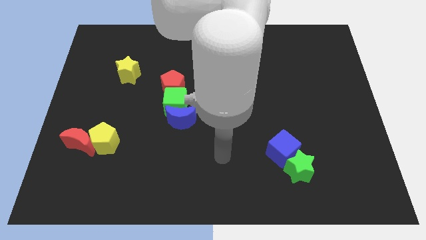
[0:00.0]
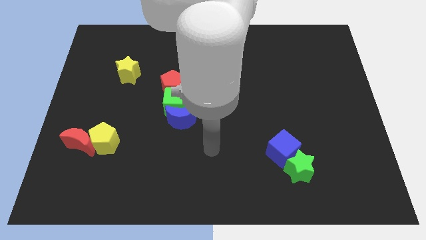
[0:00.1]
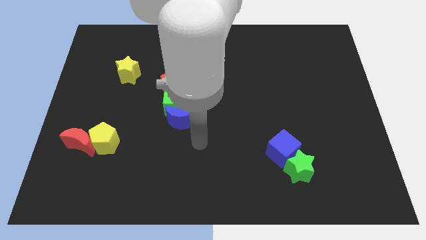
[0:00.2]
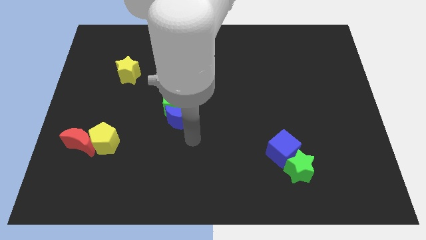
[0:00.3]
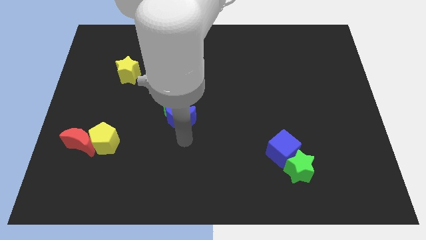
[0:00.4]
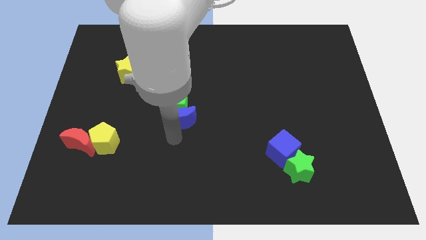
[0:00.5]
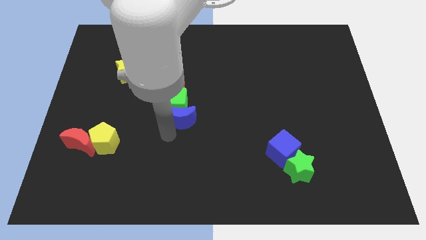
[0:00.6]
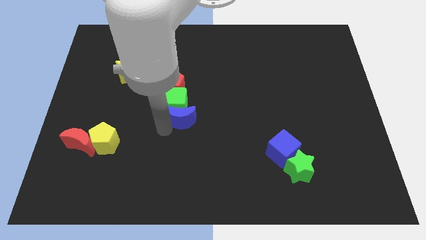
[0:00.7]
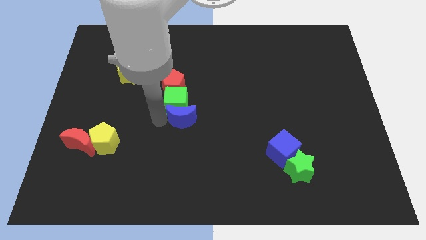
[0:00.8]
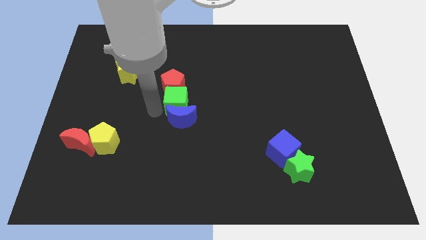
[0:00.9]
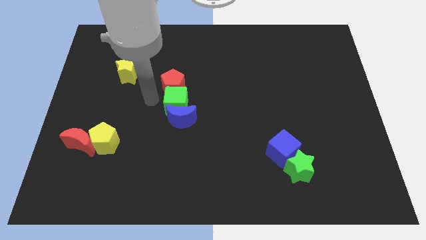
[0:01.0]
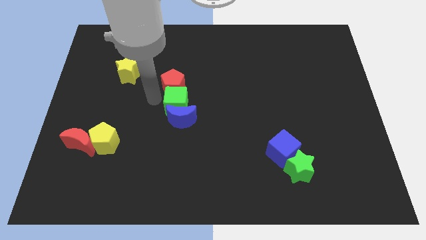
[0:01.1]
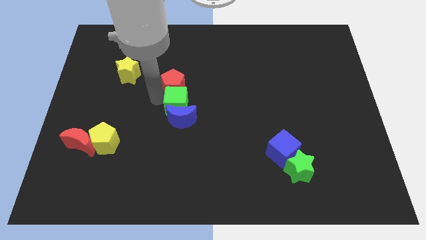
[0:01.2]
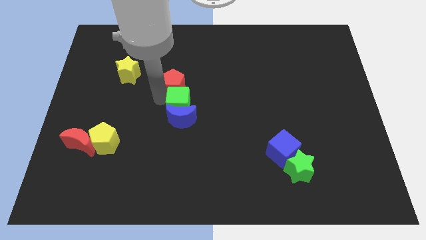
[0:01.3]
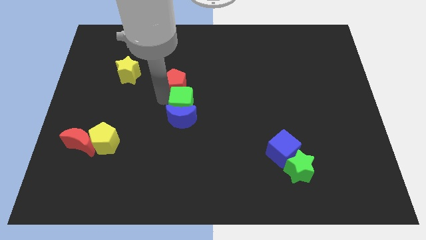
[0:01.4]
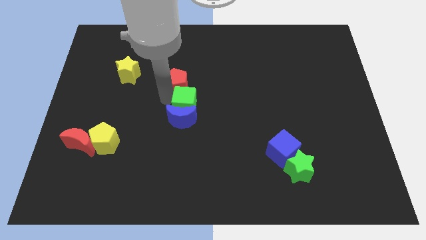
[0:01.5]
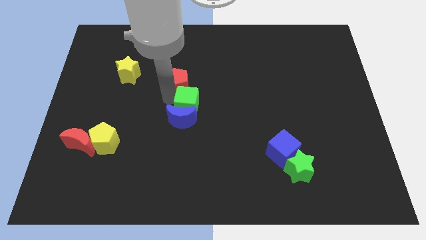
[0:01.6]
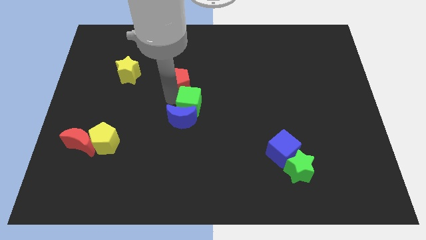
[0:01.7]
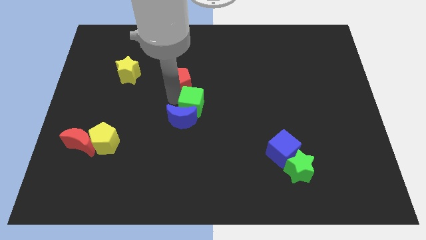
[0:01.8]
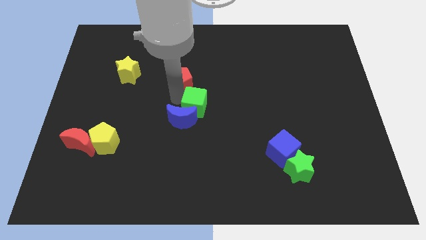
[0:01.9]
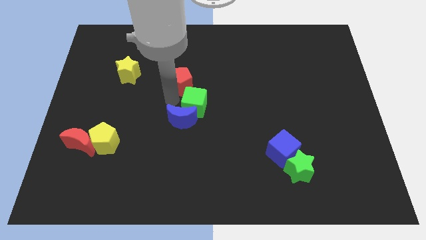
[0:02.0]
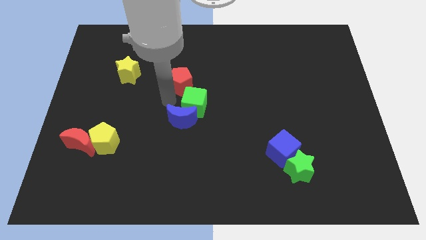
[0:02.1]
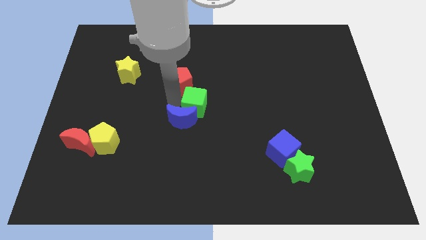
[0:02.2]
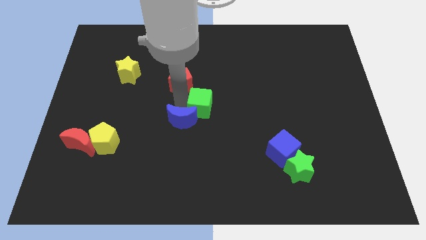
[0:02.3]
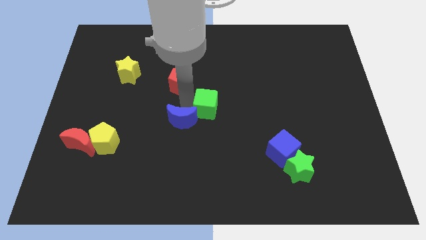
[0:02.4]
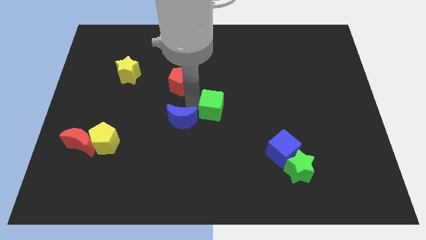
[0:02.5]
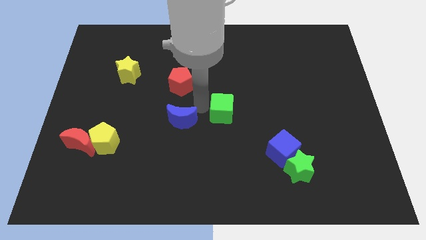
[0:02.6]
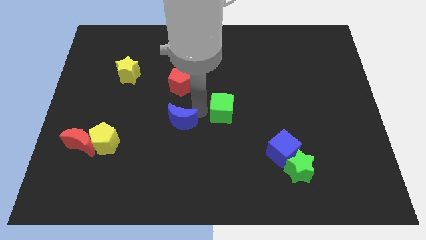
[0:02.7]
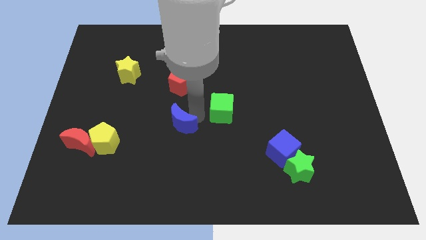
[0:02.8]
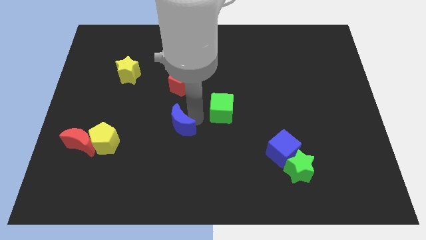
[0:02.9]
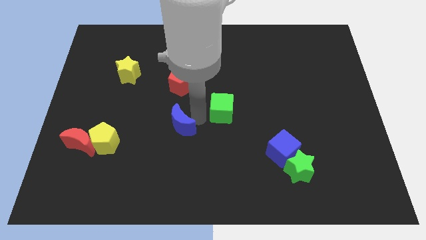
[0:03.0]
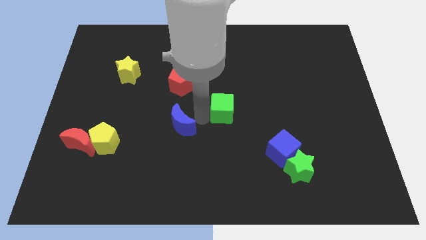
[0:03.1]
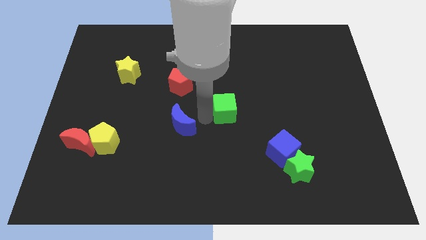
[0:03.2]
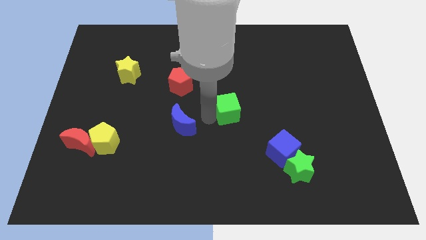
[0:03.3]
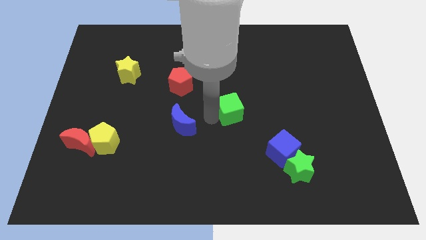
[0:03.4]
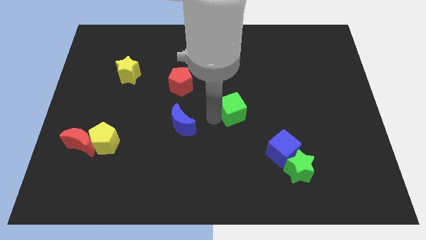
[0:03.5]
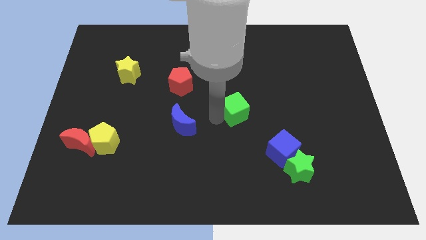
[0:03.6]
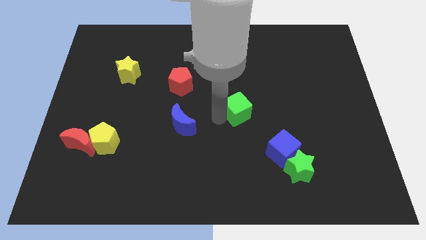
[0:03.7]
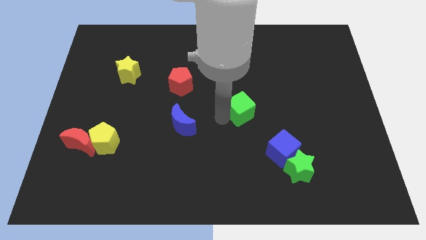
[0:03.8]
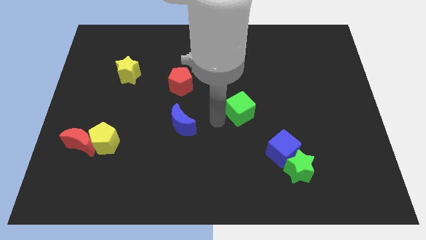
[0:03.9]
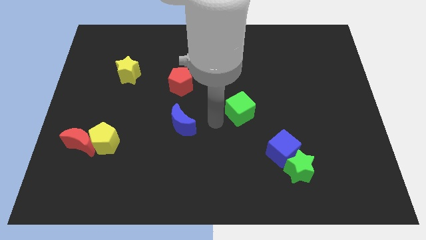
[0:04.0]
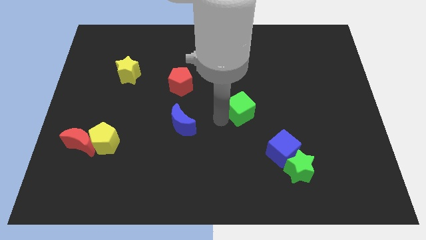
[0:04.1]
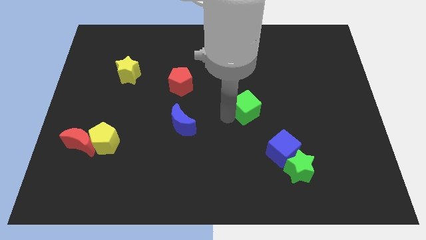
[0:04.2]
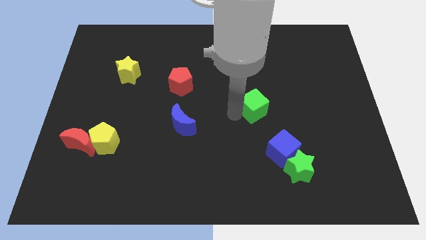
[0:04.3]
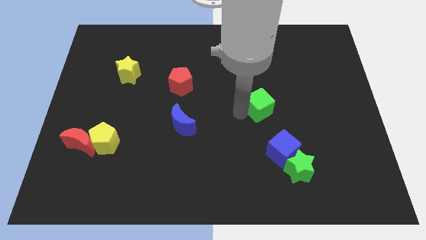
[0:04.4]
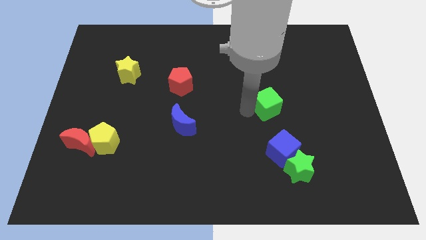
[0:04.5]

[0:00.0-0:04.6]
push the green cube right

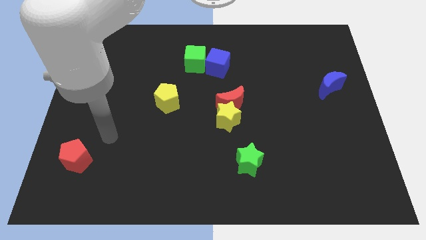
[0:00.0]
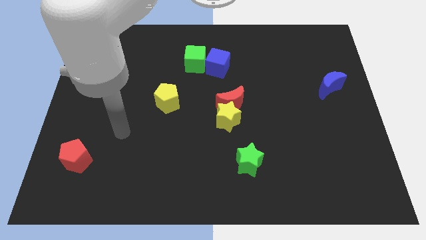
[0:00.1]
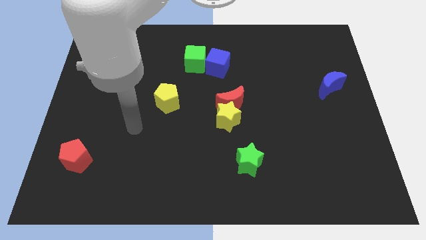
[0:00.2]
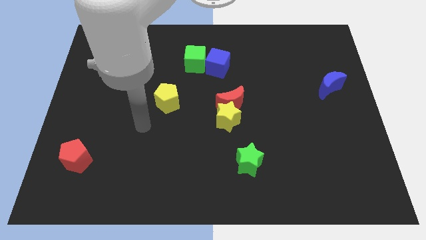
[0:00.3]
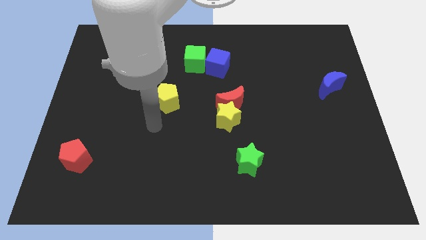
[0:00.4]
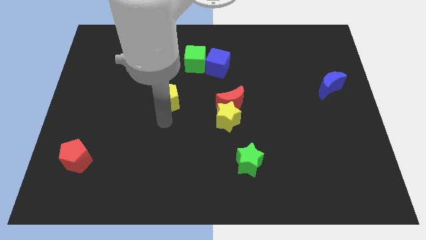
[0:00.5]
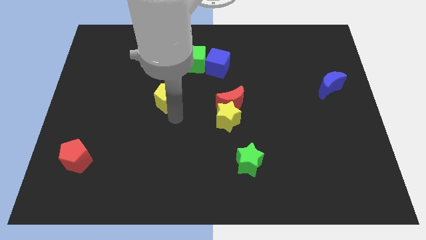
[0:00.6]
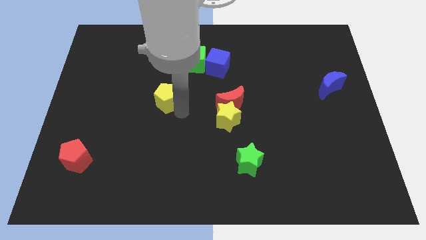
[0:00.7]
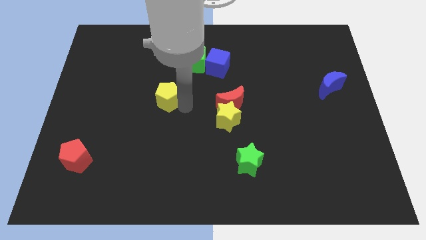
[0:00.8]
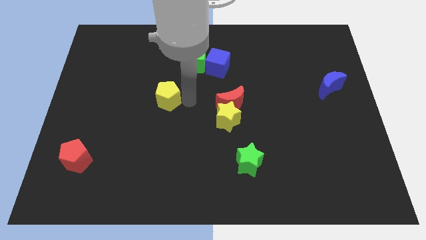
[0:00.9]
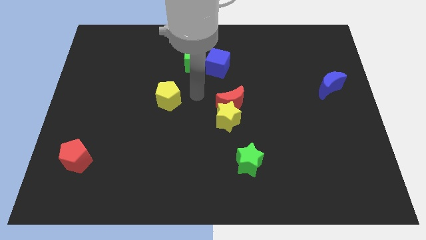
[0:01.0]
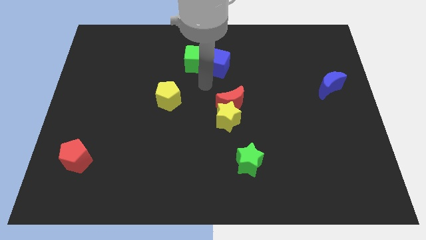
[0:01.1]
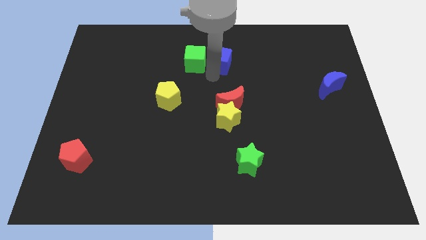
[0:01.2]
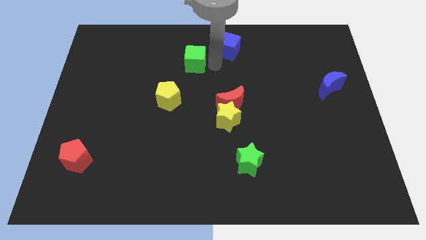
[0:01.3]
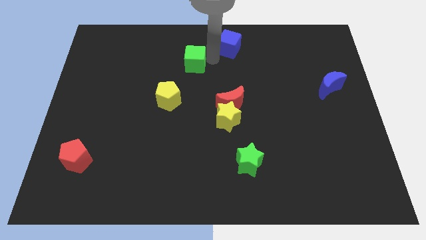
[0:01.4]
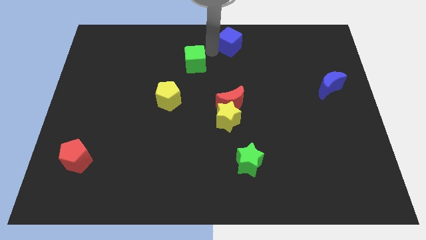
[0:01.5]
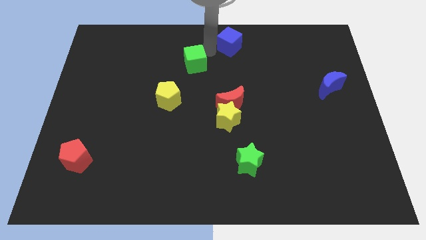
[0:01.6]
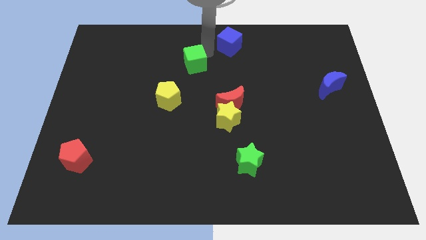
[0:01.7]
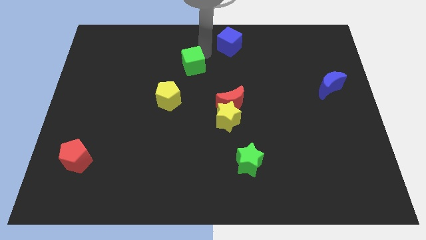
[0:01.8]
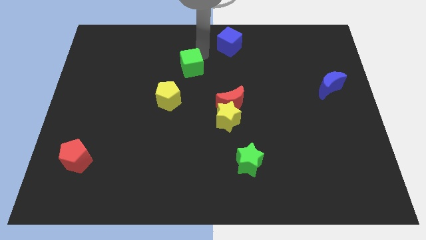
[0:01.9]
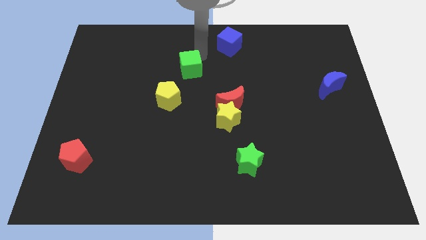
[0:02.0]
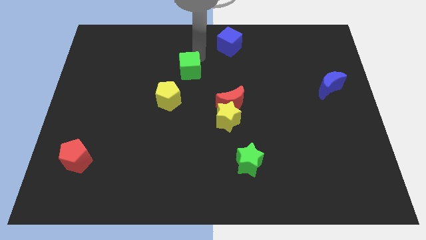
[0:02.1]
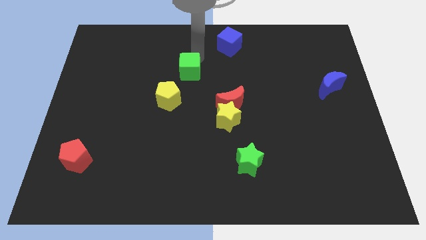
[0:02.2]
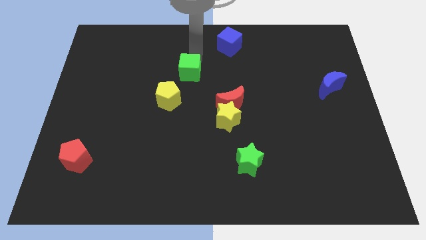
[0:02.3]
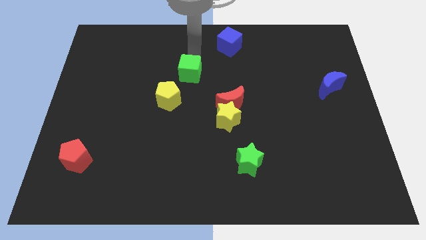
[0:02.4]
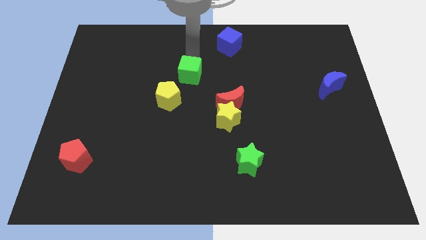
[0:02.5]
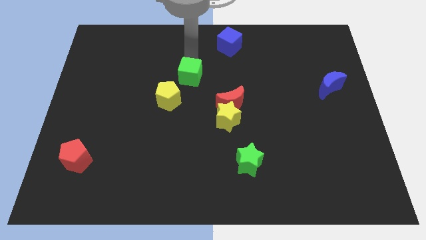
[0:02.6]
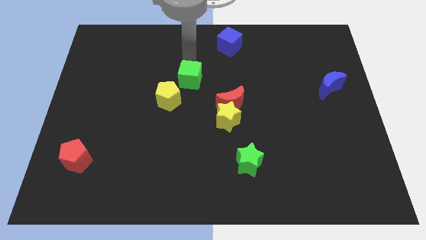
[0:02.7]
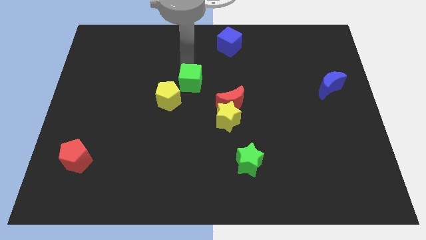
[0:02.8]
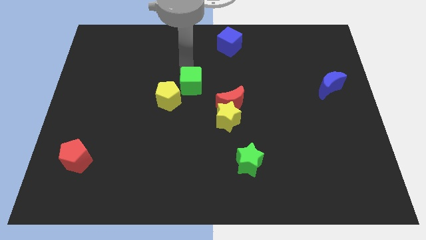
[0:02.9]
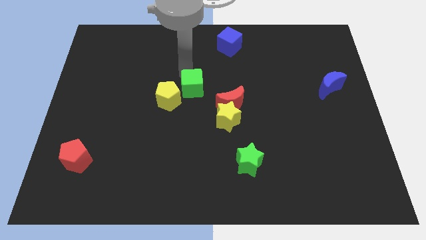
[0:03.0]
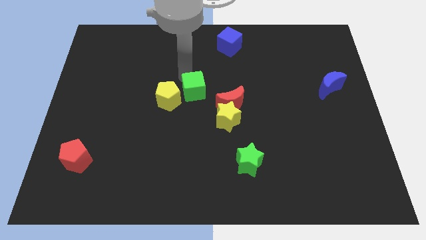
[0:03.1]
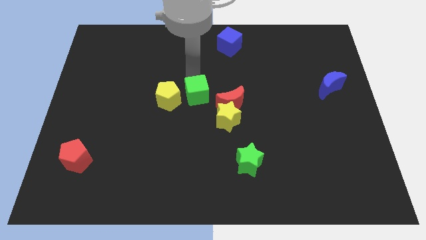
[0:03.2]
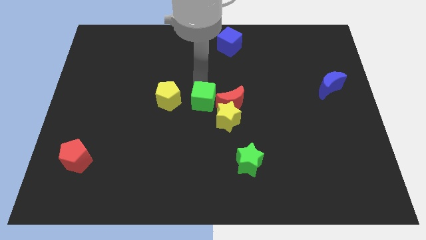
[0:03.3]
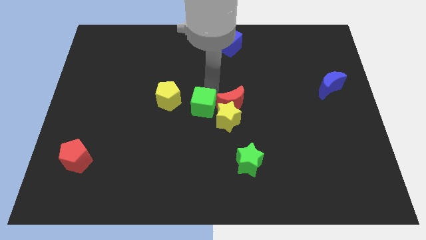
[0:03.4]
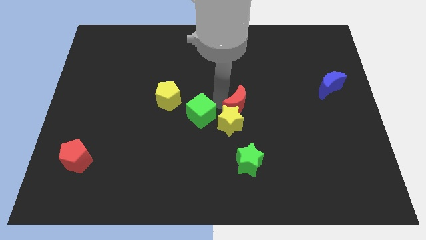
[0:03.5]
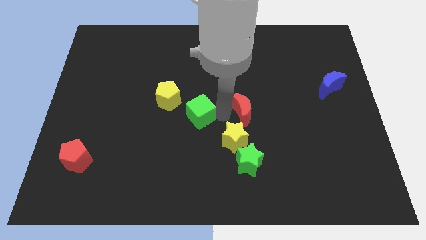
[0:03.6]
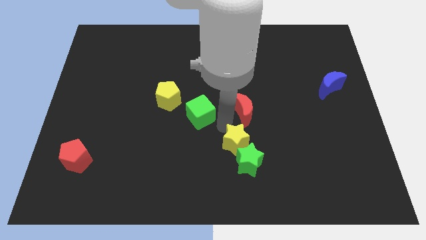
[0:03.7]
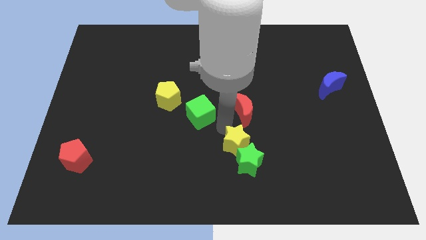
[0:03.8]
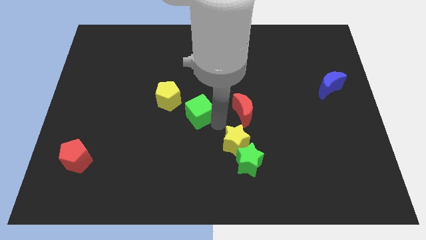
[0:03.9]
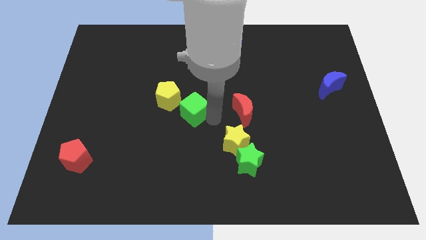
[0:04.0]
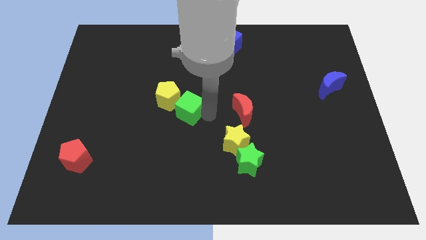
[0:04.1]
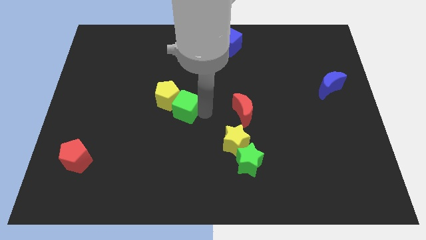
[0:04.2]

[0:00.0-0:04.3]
slide the green cube a little bit diagonally down and left
